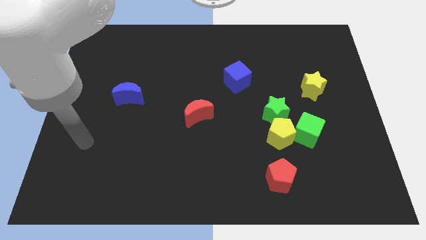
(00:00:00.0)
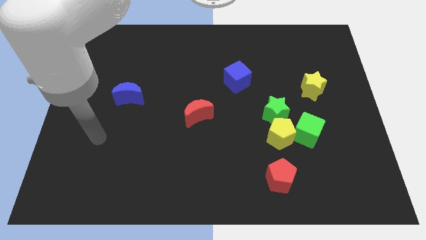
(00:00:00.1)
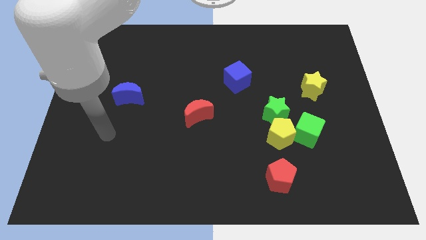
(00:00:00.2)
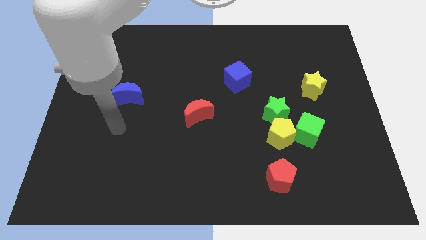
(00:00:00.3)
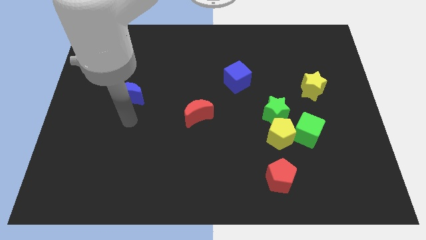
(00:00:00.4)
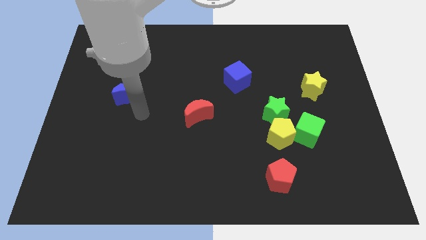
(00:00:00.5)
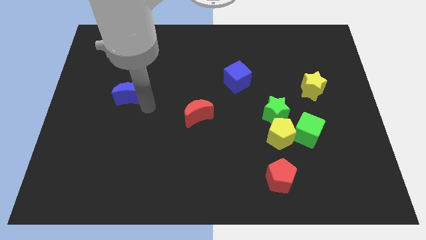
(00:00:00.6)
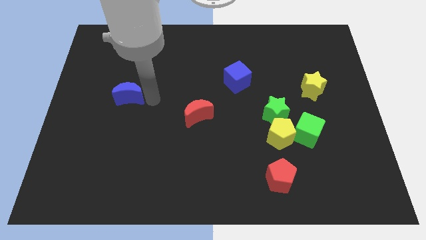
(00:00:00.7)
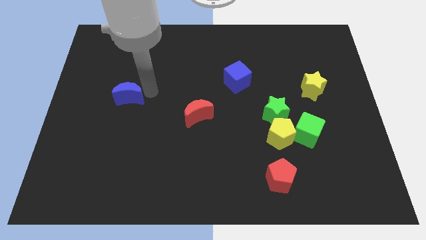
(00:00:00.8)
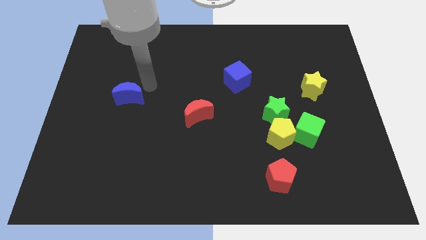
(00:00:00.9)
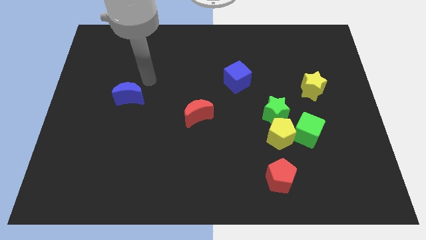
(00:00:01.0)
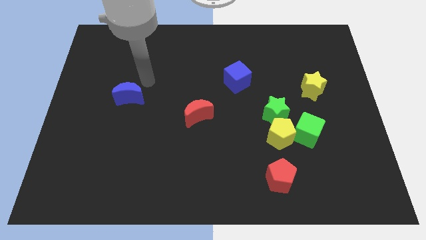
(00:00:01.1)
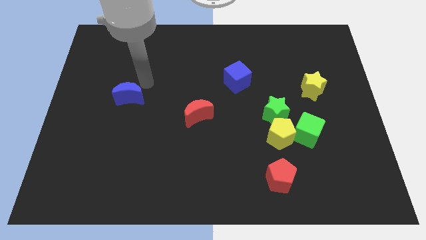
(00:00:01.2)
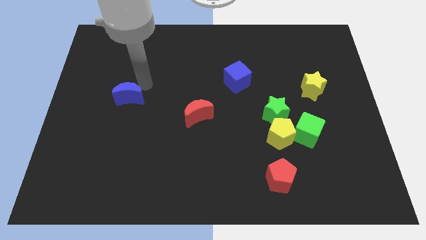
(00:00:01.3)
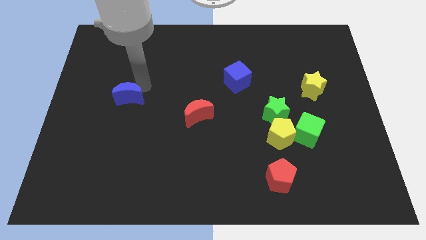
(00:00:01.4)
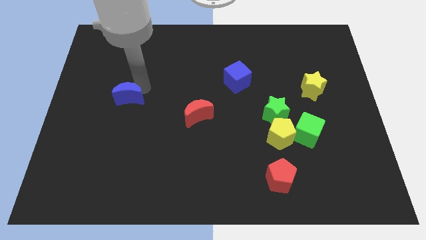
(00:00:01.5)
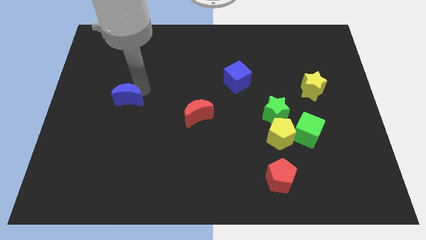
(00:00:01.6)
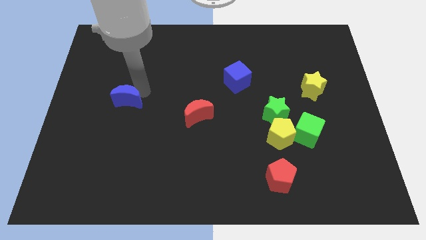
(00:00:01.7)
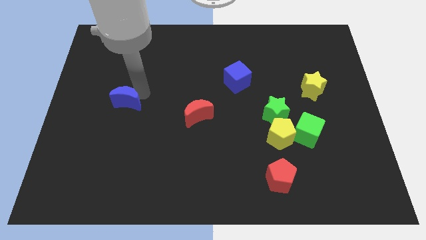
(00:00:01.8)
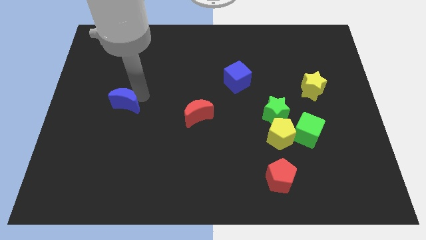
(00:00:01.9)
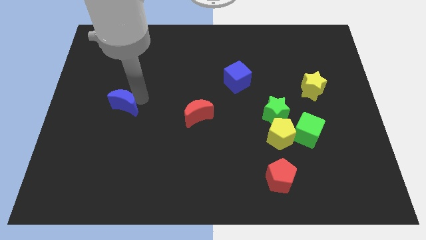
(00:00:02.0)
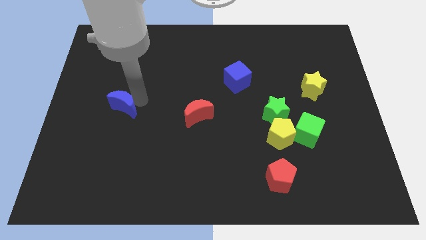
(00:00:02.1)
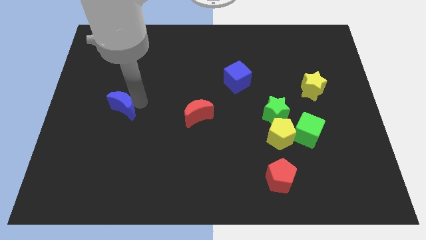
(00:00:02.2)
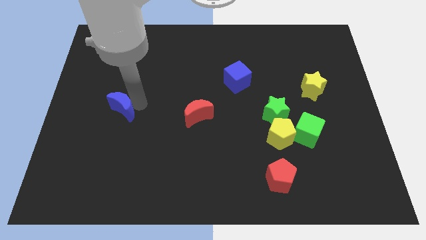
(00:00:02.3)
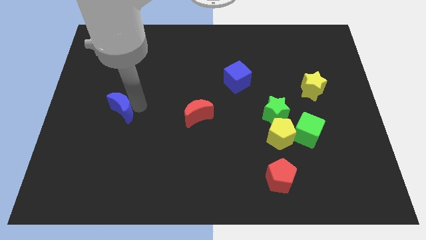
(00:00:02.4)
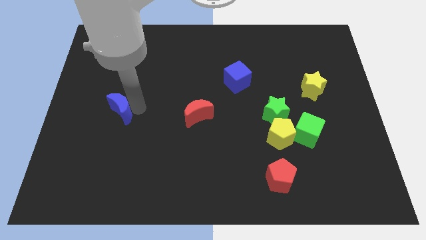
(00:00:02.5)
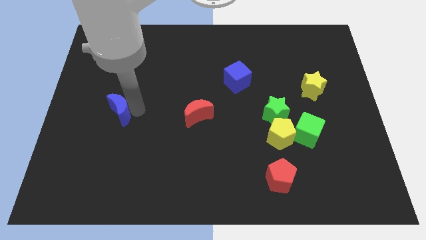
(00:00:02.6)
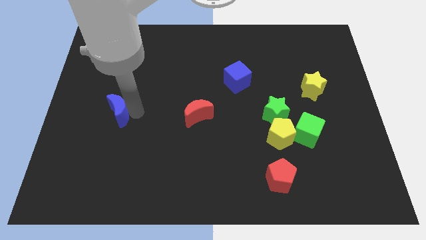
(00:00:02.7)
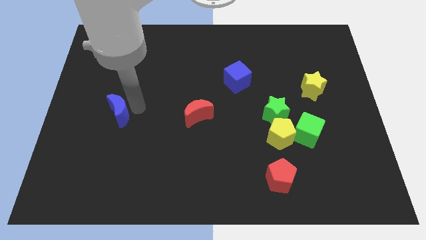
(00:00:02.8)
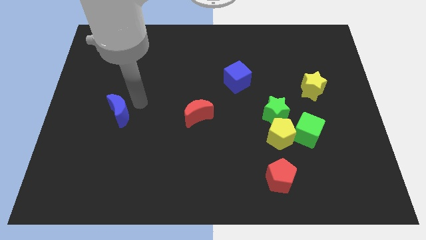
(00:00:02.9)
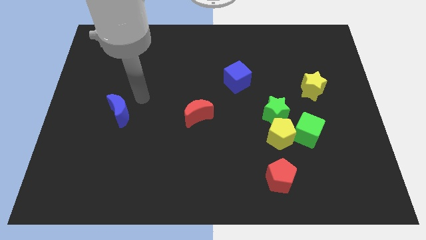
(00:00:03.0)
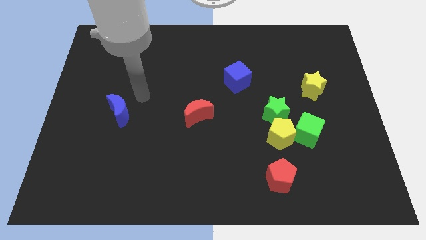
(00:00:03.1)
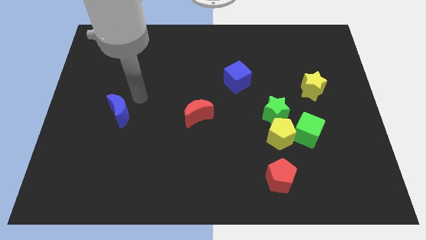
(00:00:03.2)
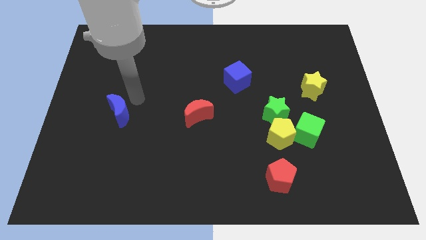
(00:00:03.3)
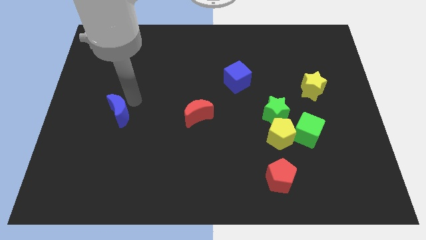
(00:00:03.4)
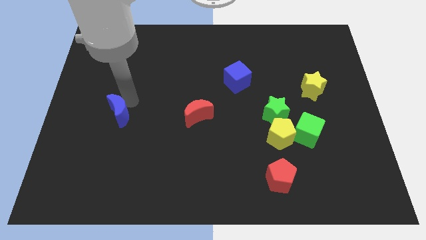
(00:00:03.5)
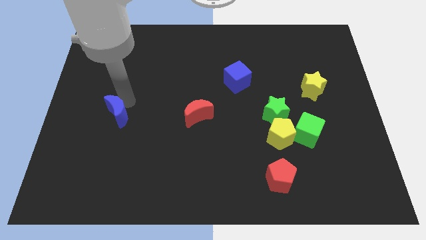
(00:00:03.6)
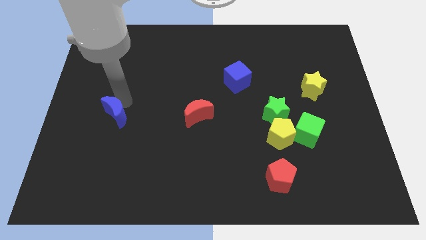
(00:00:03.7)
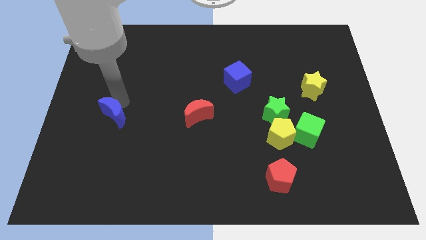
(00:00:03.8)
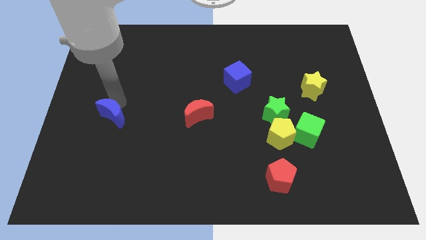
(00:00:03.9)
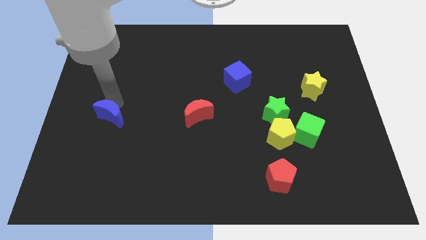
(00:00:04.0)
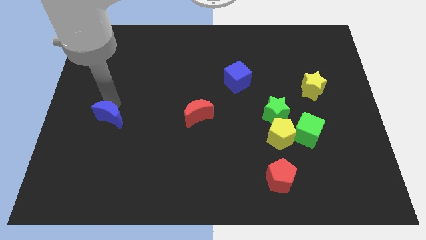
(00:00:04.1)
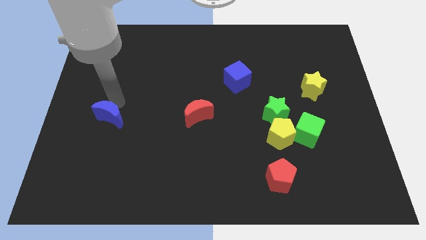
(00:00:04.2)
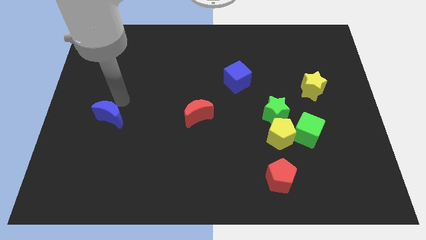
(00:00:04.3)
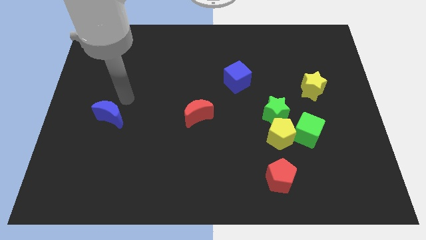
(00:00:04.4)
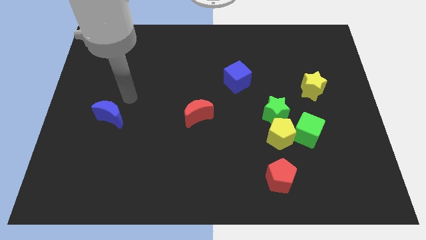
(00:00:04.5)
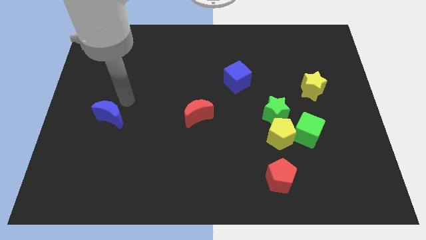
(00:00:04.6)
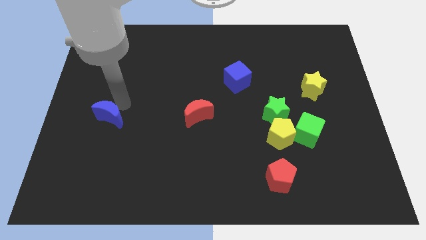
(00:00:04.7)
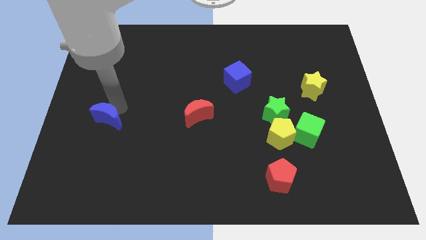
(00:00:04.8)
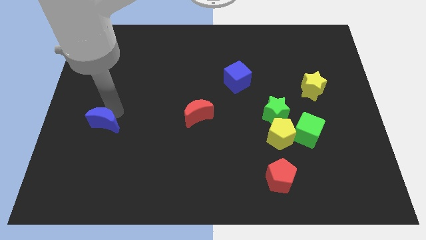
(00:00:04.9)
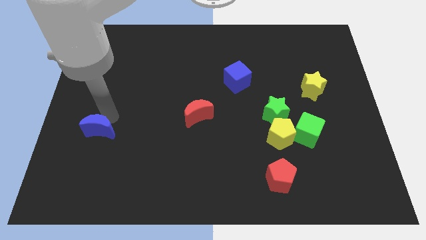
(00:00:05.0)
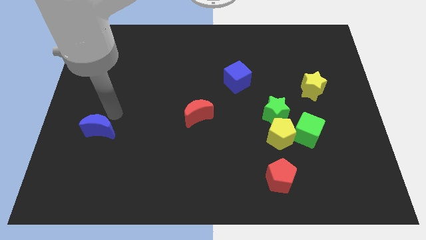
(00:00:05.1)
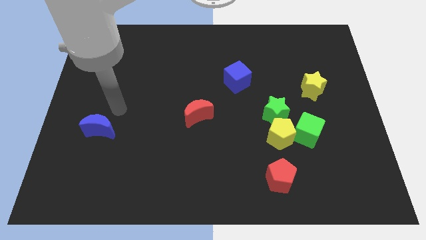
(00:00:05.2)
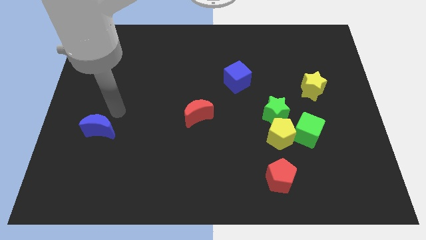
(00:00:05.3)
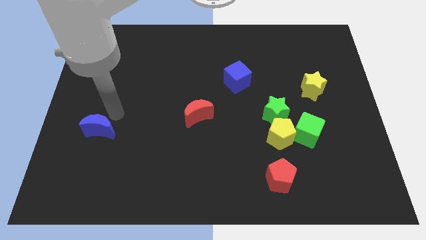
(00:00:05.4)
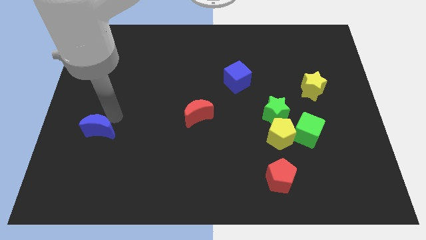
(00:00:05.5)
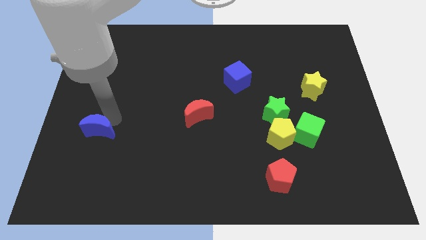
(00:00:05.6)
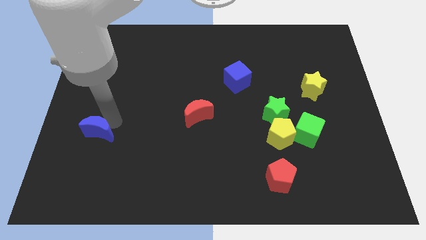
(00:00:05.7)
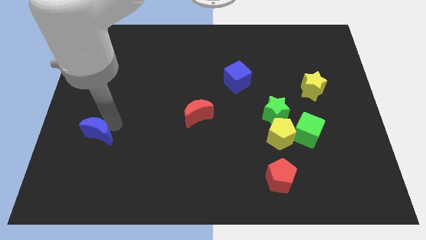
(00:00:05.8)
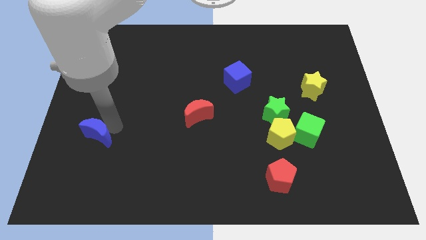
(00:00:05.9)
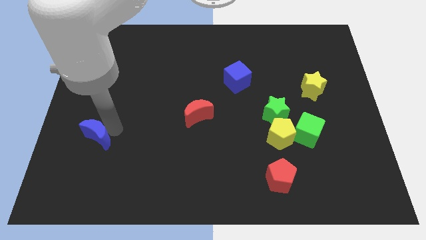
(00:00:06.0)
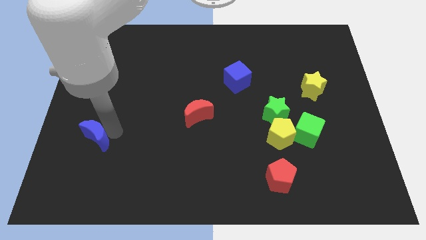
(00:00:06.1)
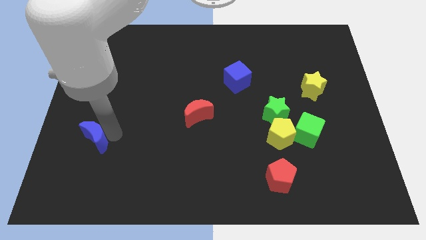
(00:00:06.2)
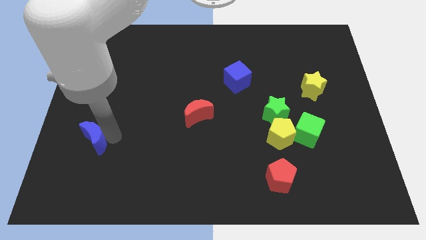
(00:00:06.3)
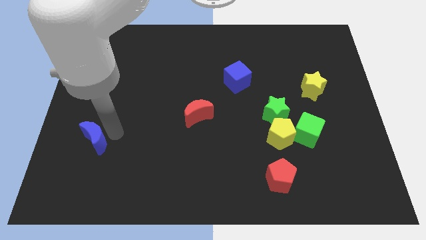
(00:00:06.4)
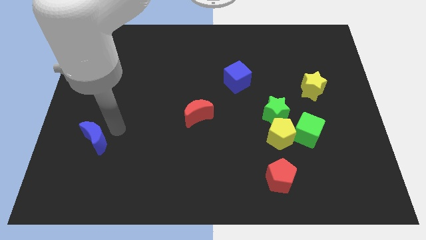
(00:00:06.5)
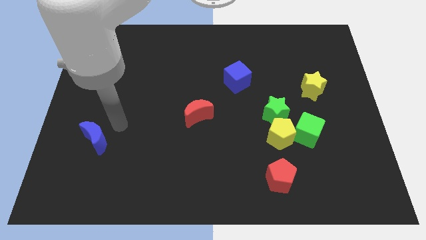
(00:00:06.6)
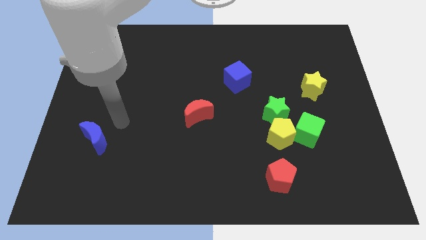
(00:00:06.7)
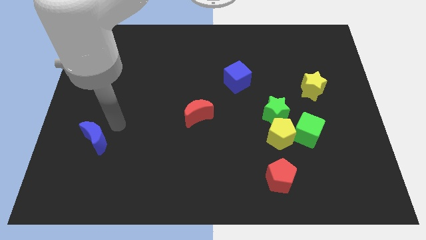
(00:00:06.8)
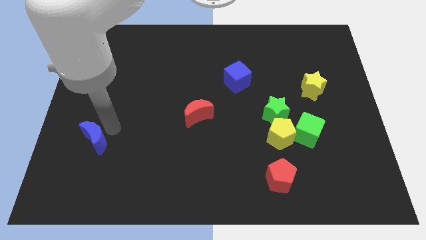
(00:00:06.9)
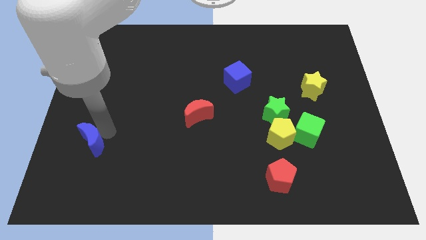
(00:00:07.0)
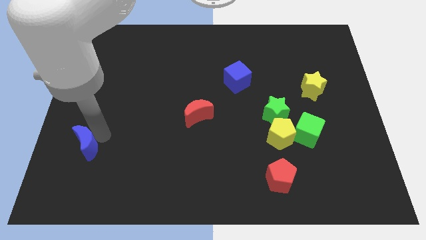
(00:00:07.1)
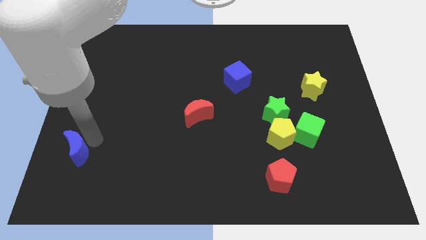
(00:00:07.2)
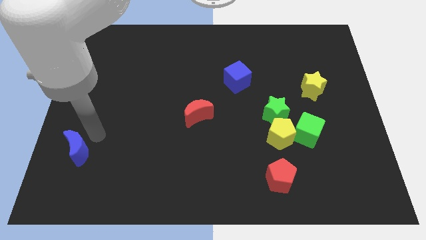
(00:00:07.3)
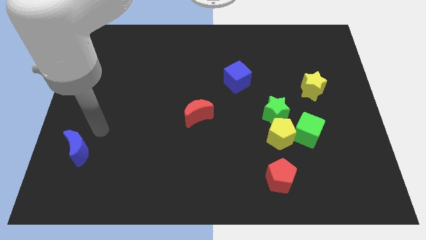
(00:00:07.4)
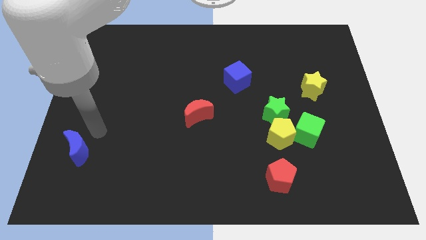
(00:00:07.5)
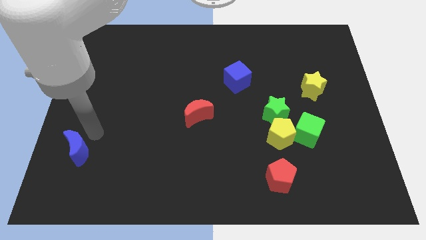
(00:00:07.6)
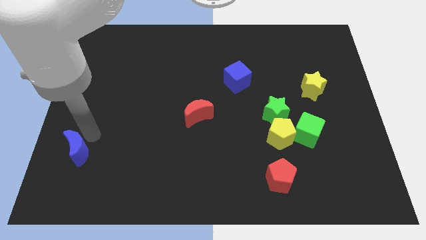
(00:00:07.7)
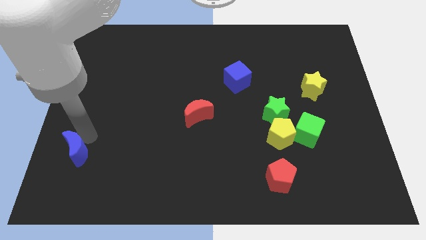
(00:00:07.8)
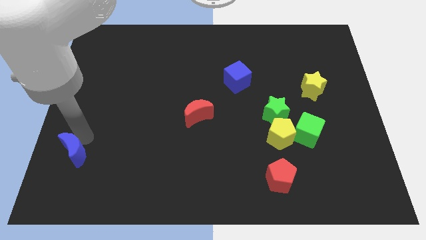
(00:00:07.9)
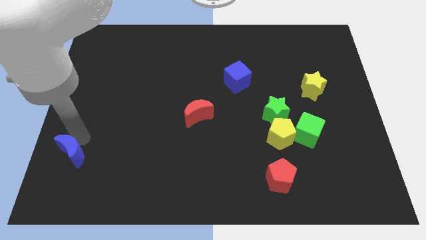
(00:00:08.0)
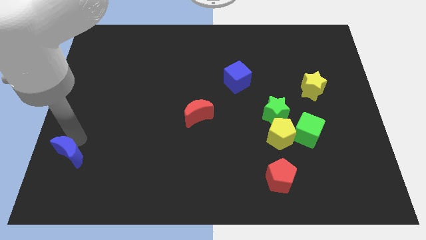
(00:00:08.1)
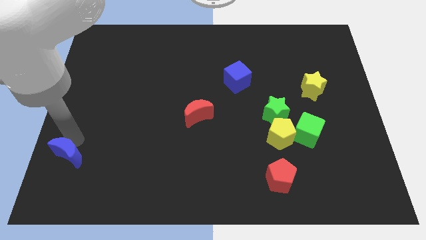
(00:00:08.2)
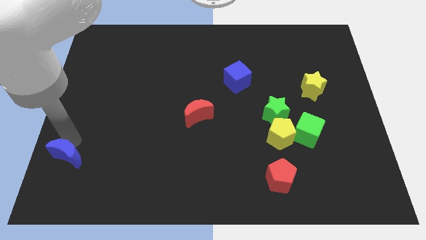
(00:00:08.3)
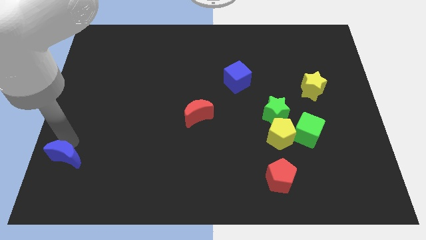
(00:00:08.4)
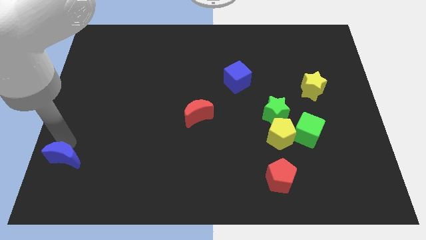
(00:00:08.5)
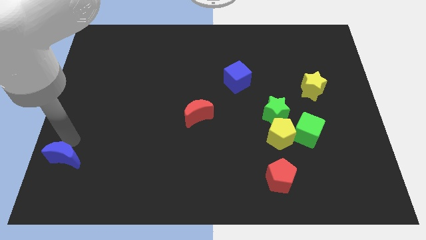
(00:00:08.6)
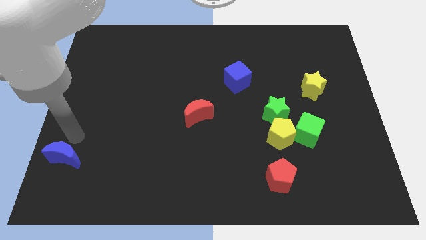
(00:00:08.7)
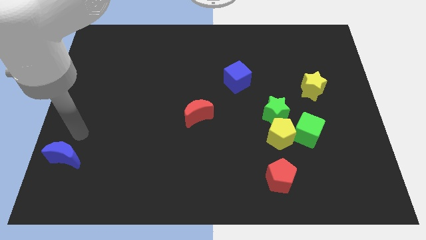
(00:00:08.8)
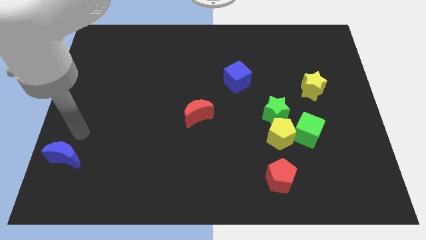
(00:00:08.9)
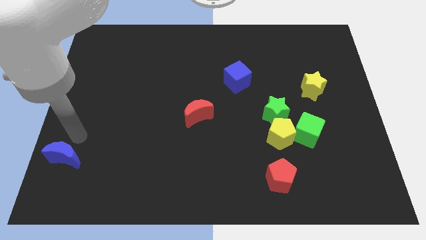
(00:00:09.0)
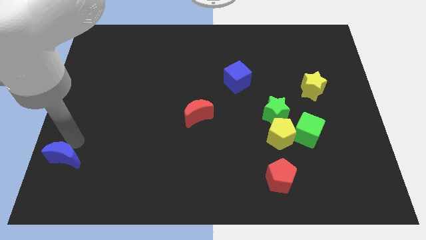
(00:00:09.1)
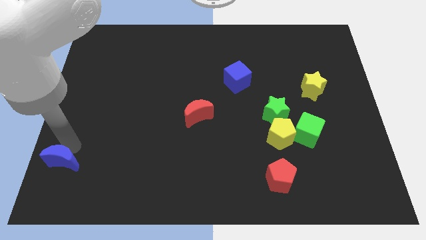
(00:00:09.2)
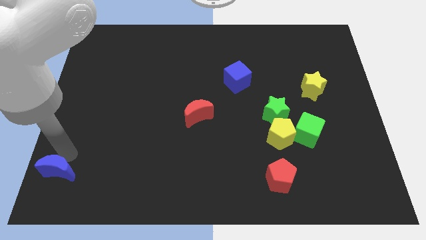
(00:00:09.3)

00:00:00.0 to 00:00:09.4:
move the blue moon to the bottom left corner
